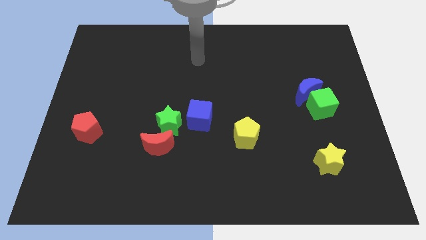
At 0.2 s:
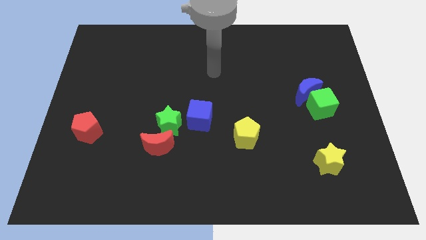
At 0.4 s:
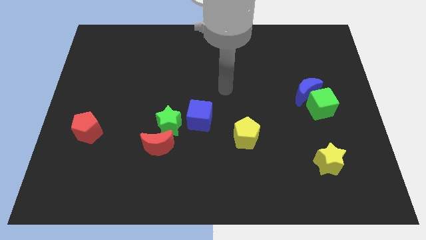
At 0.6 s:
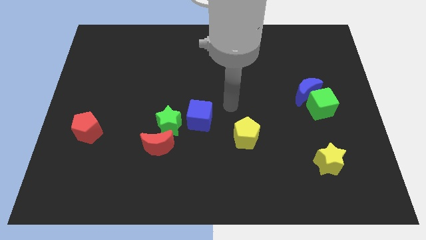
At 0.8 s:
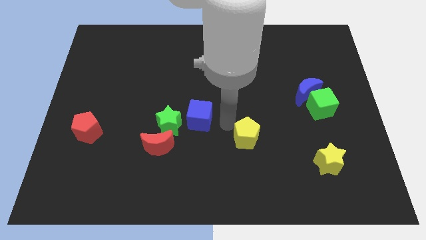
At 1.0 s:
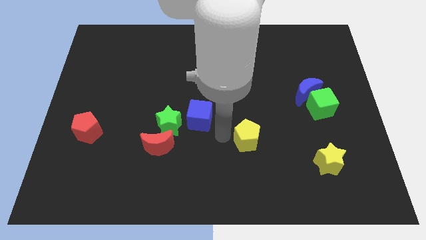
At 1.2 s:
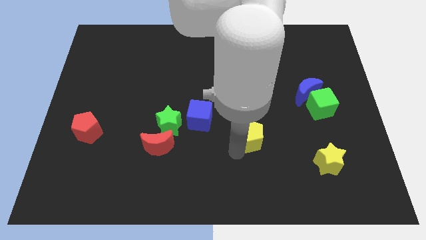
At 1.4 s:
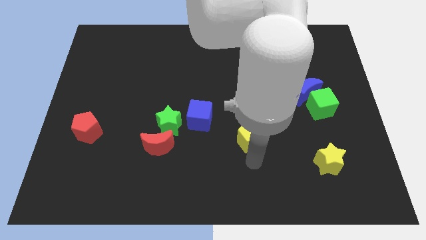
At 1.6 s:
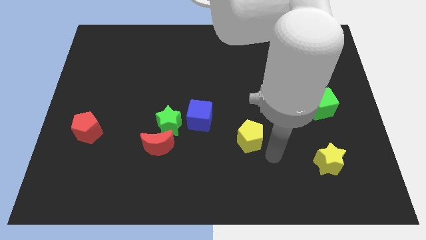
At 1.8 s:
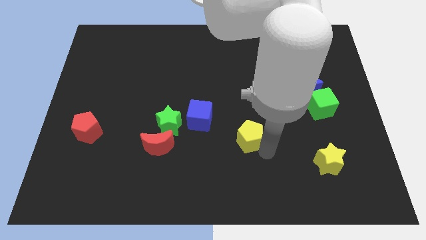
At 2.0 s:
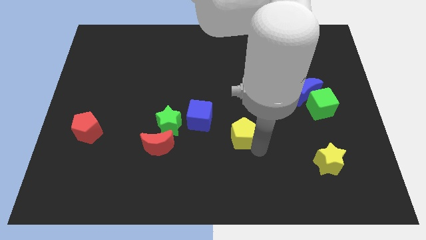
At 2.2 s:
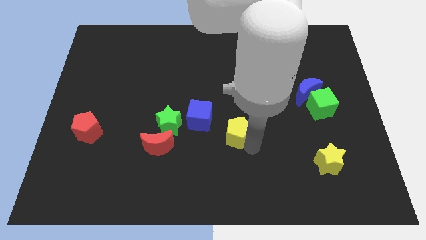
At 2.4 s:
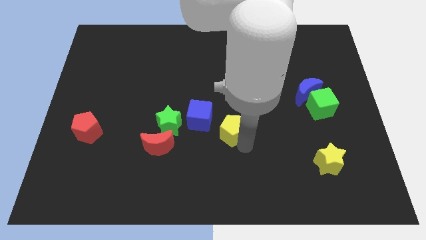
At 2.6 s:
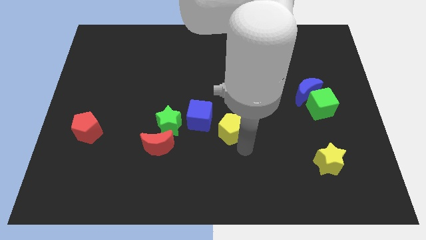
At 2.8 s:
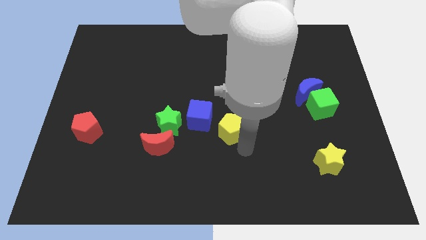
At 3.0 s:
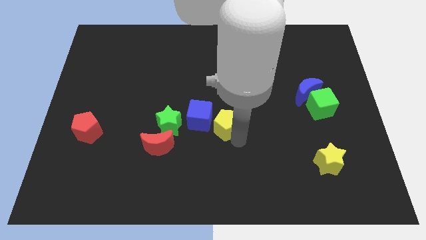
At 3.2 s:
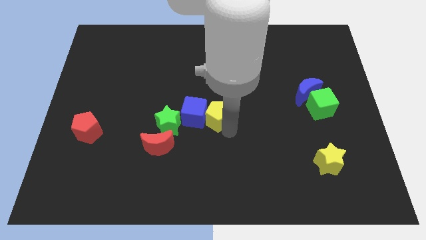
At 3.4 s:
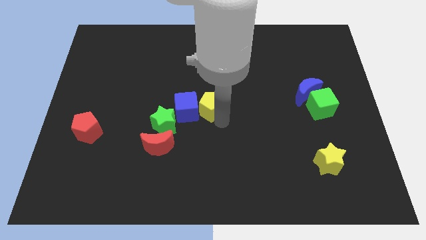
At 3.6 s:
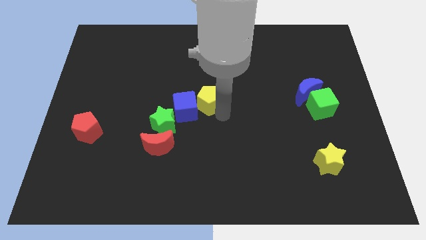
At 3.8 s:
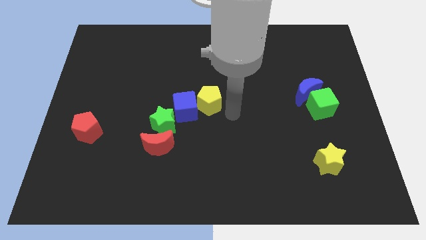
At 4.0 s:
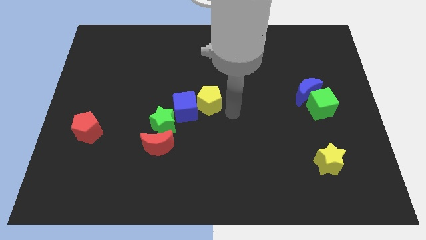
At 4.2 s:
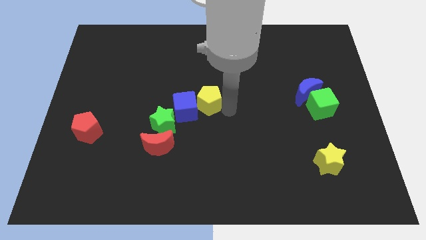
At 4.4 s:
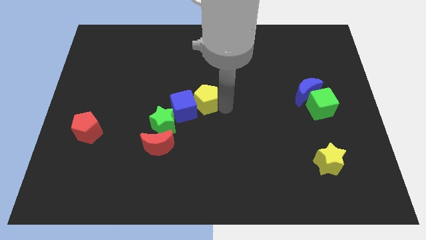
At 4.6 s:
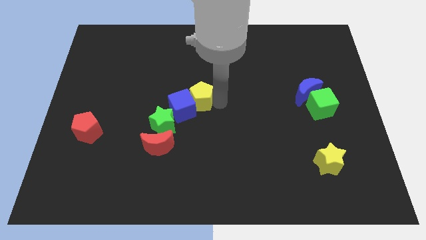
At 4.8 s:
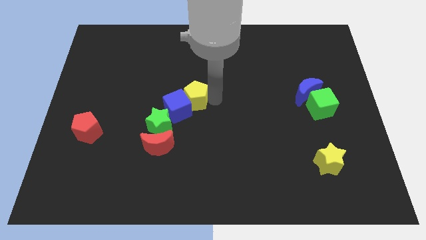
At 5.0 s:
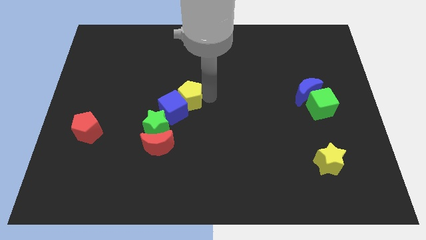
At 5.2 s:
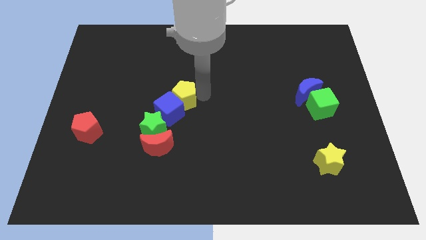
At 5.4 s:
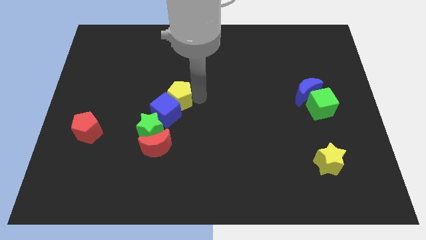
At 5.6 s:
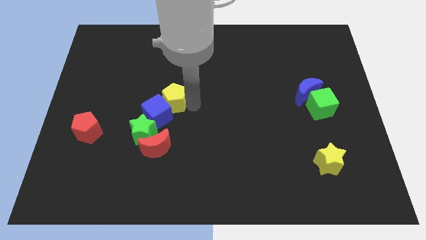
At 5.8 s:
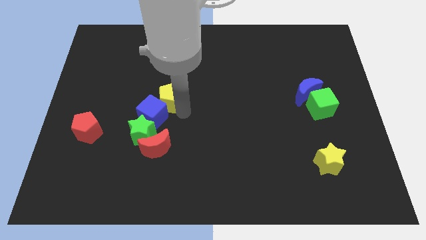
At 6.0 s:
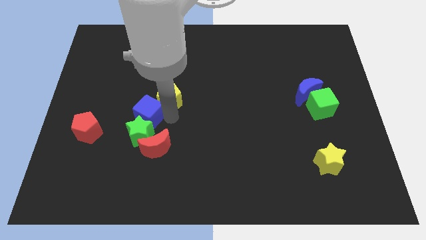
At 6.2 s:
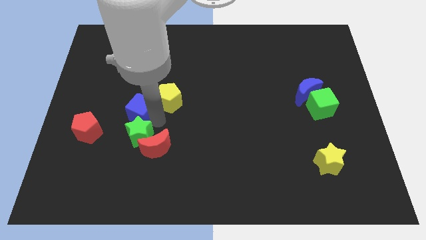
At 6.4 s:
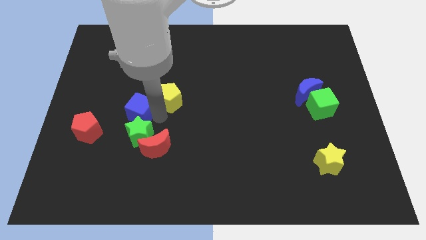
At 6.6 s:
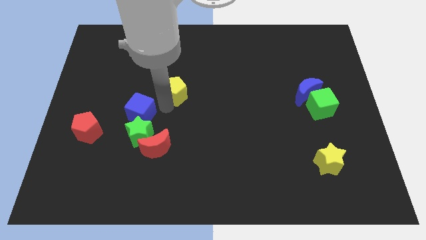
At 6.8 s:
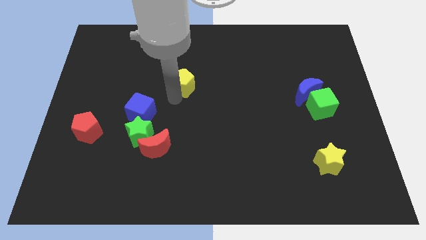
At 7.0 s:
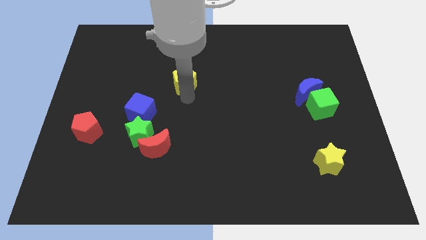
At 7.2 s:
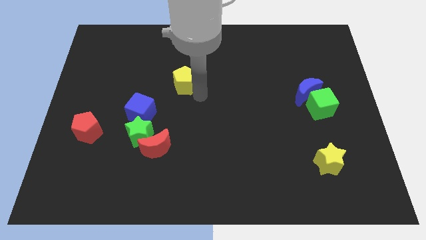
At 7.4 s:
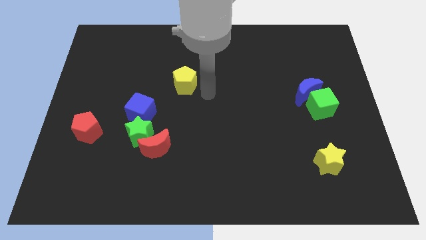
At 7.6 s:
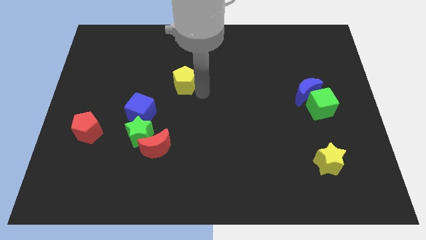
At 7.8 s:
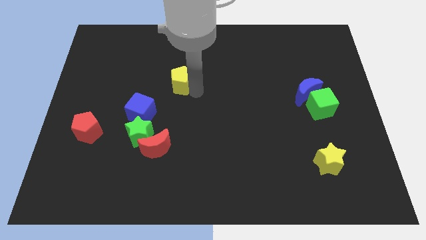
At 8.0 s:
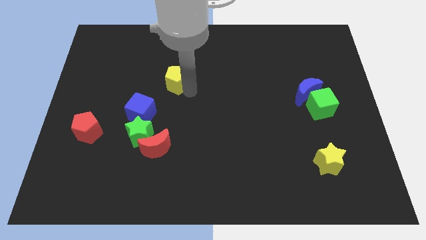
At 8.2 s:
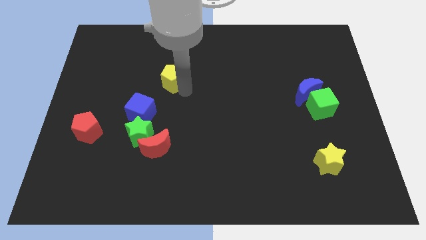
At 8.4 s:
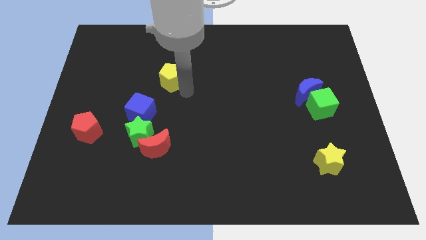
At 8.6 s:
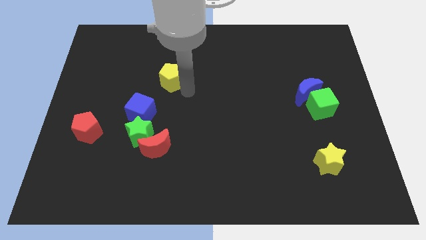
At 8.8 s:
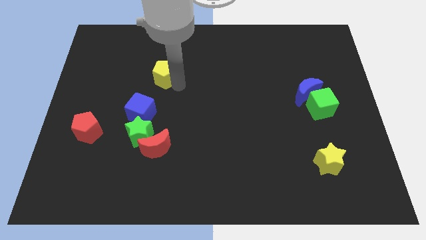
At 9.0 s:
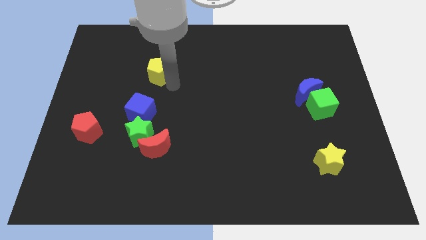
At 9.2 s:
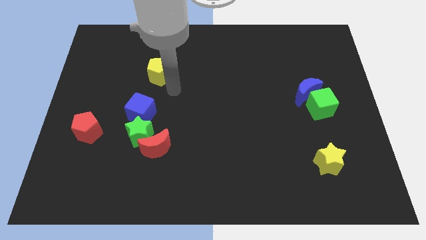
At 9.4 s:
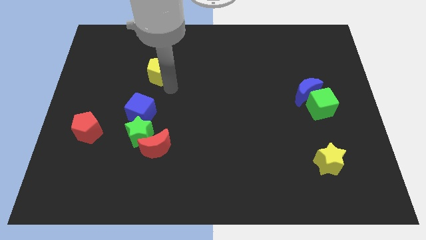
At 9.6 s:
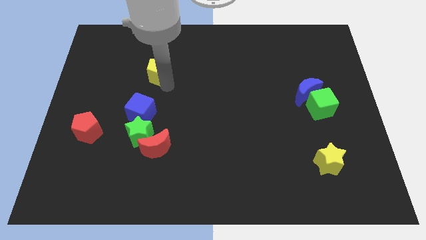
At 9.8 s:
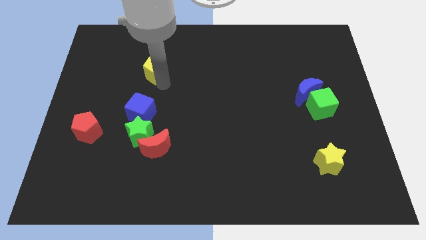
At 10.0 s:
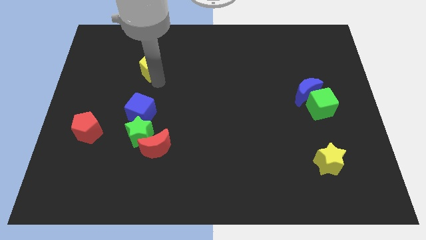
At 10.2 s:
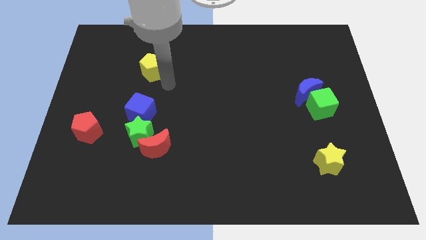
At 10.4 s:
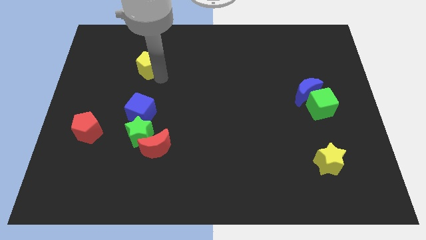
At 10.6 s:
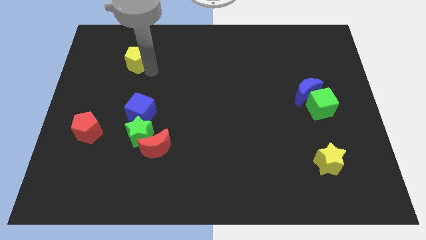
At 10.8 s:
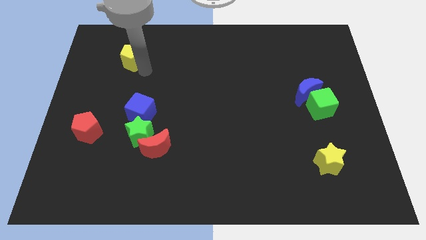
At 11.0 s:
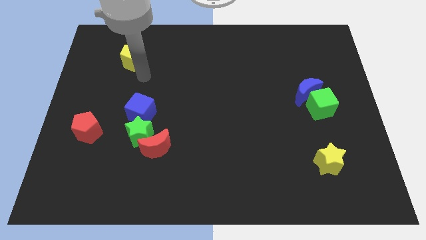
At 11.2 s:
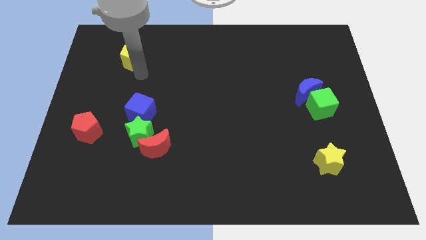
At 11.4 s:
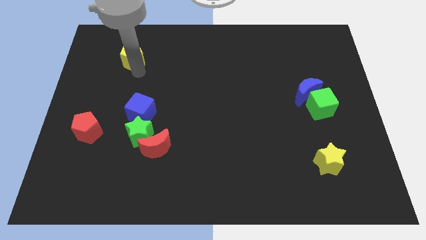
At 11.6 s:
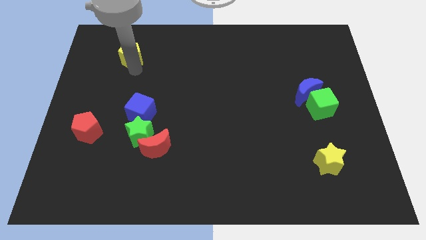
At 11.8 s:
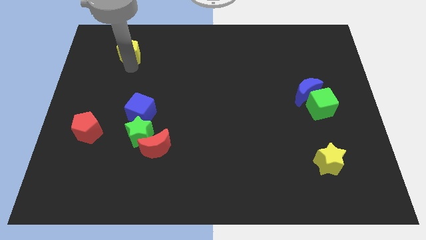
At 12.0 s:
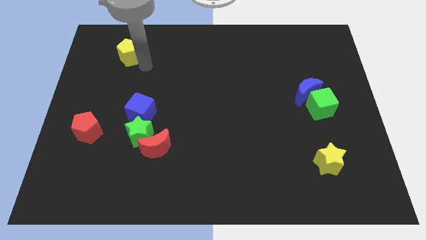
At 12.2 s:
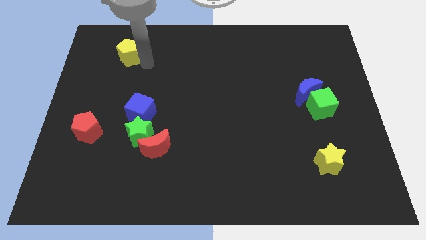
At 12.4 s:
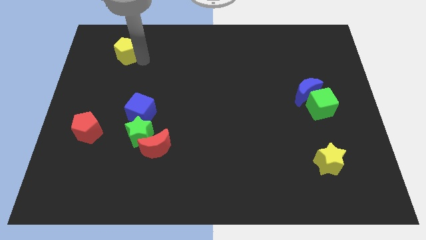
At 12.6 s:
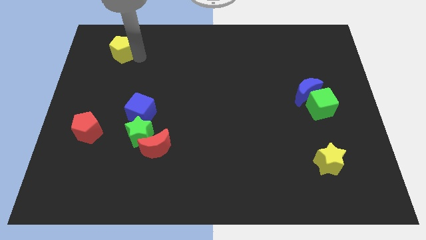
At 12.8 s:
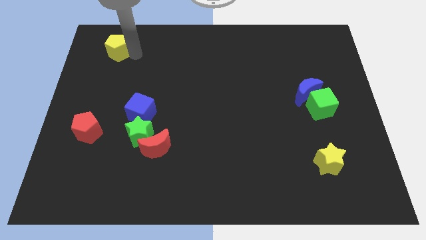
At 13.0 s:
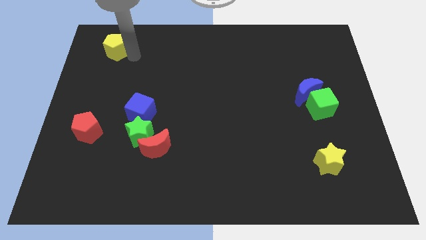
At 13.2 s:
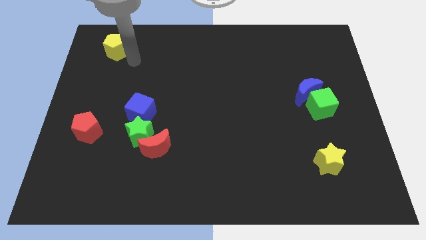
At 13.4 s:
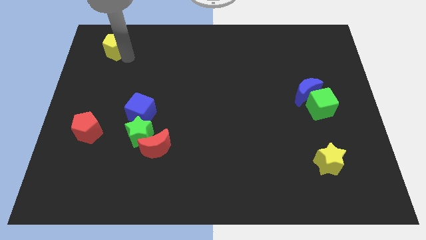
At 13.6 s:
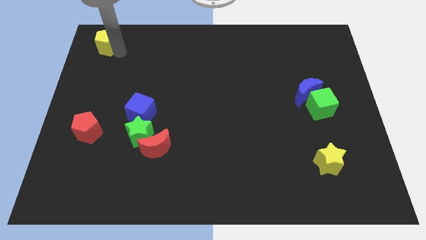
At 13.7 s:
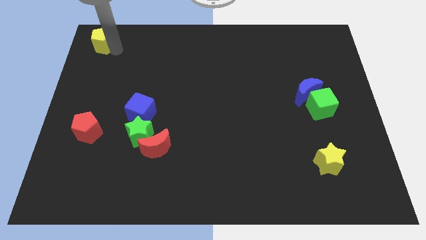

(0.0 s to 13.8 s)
push the yellow pentagon to the top left corner
